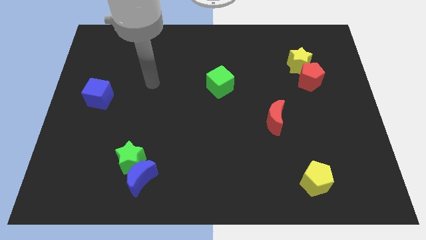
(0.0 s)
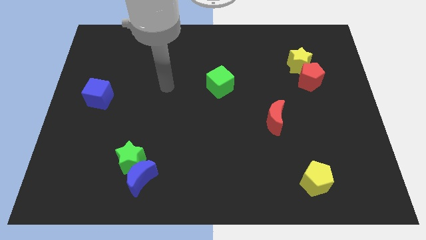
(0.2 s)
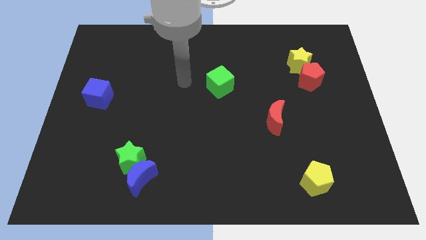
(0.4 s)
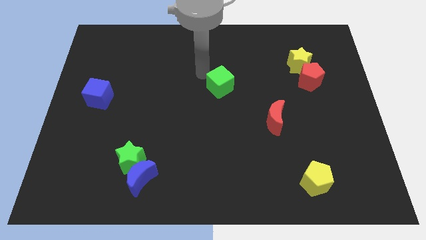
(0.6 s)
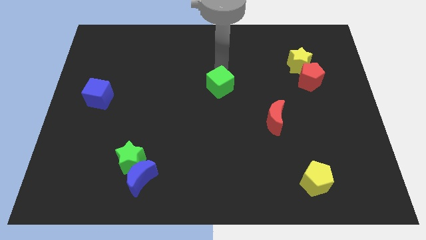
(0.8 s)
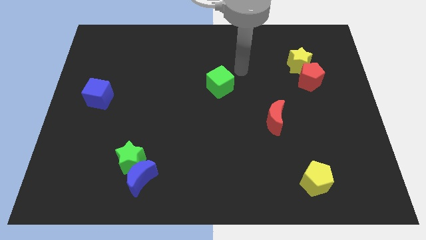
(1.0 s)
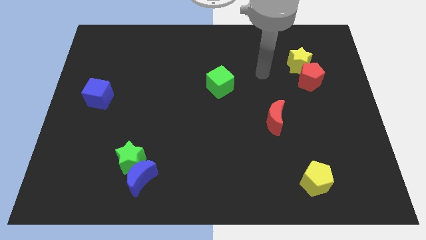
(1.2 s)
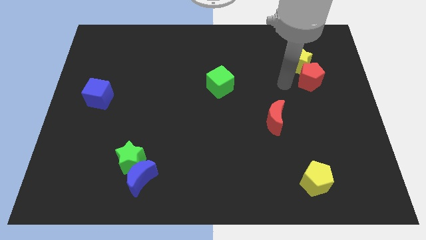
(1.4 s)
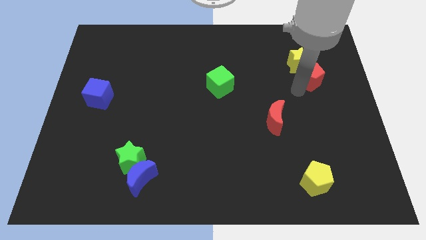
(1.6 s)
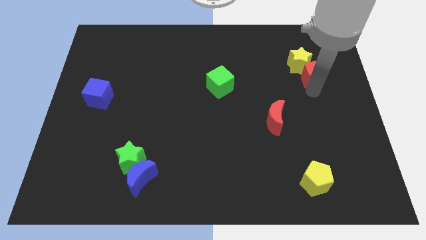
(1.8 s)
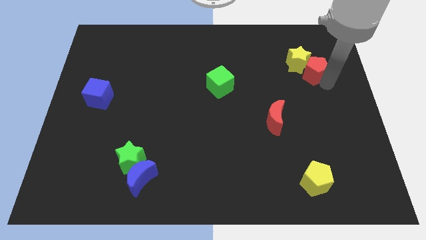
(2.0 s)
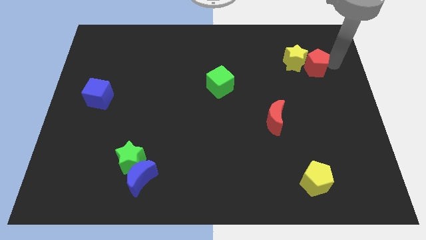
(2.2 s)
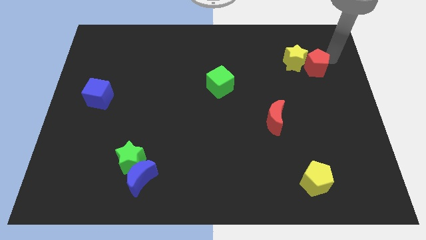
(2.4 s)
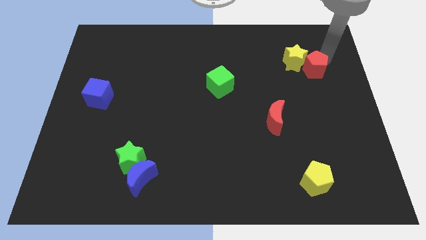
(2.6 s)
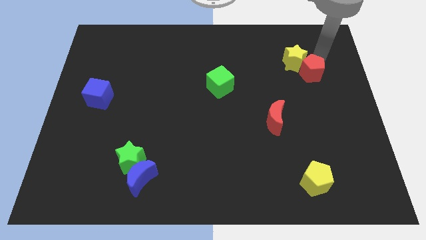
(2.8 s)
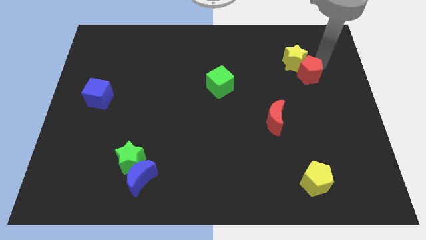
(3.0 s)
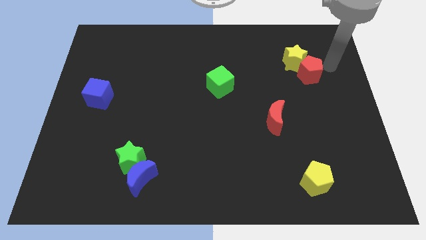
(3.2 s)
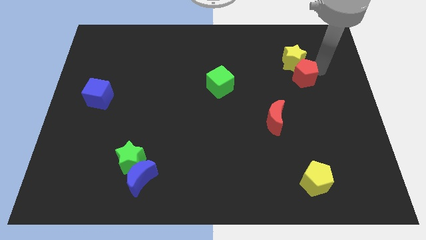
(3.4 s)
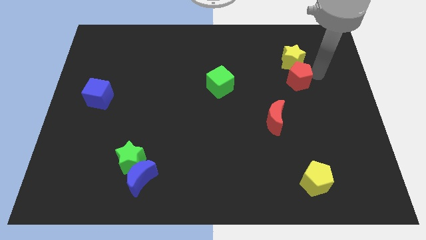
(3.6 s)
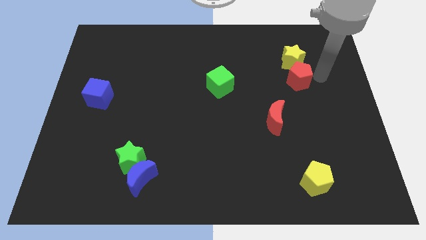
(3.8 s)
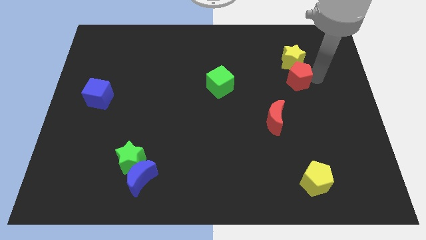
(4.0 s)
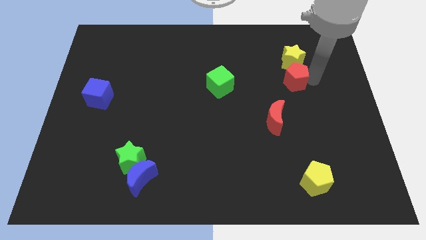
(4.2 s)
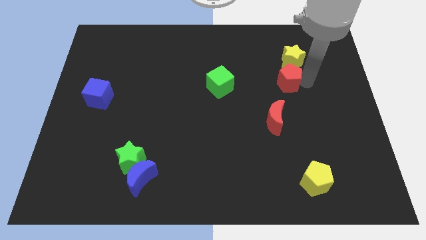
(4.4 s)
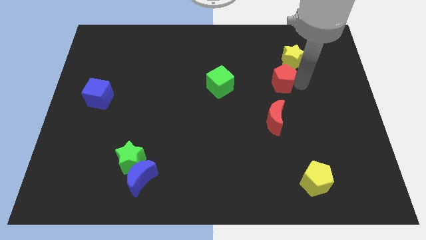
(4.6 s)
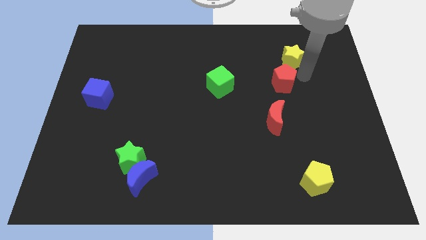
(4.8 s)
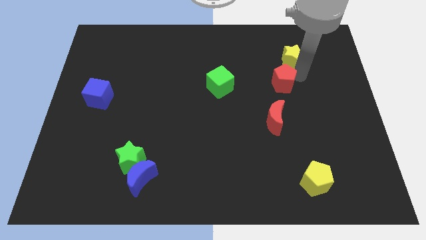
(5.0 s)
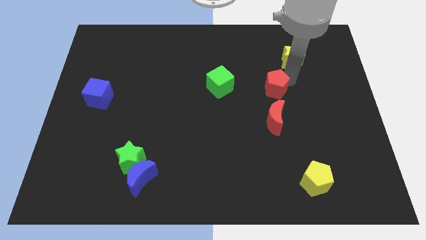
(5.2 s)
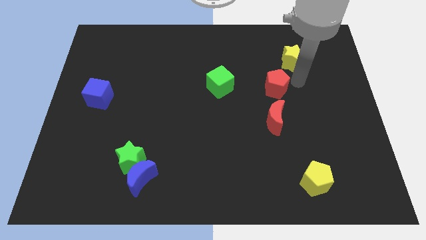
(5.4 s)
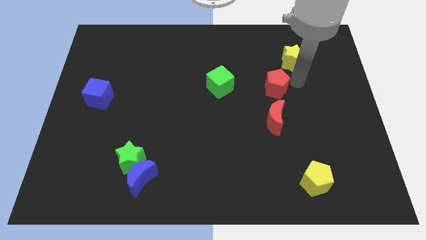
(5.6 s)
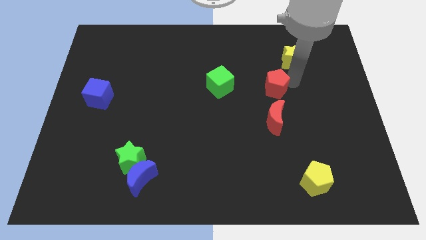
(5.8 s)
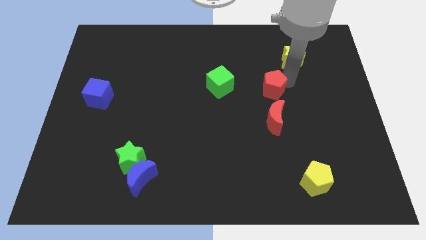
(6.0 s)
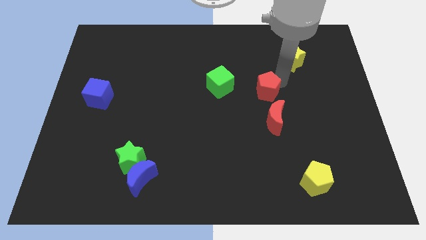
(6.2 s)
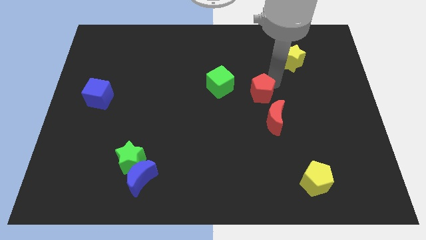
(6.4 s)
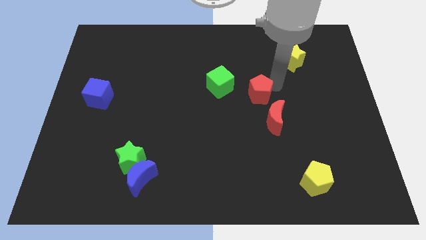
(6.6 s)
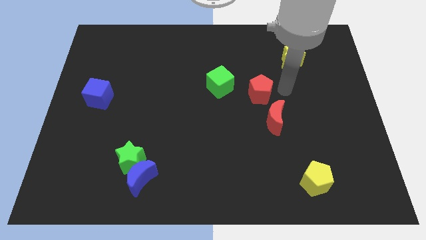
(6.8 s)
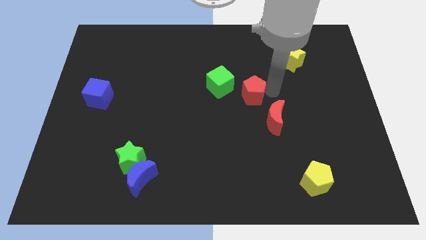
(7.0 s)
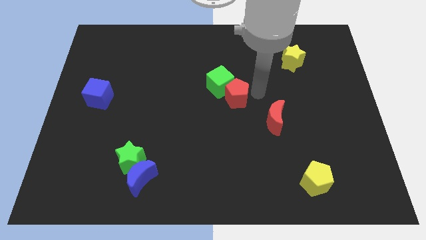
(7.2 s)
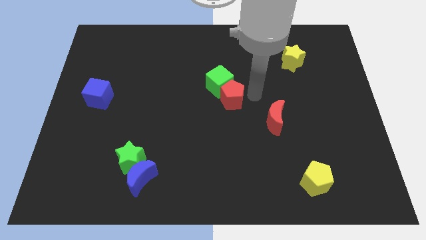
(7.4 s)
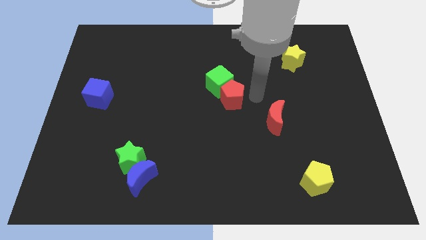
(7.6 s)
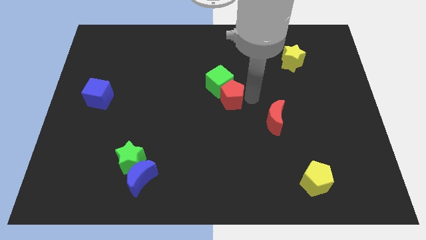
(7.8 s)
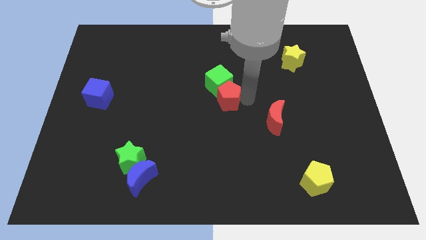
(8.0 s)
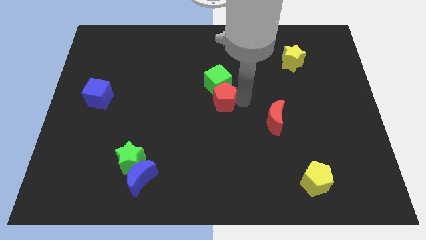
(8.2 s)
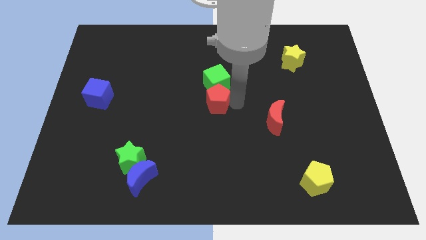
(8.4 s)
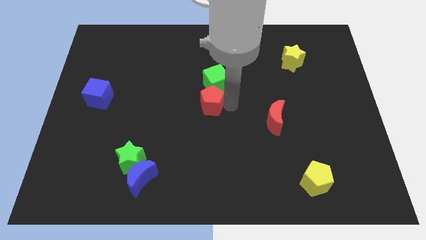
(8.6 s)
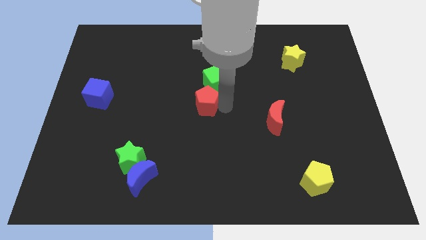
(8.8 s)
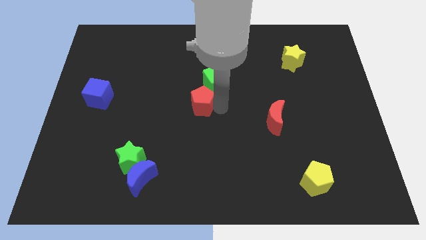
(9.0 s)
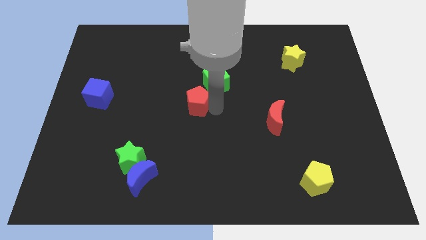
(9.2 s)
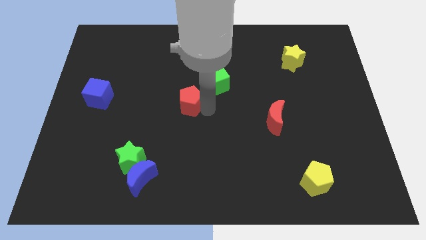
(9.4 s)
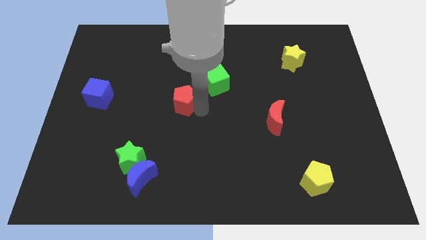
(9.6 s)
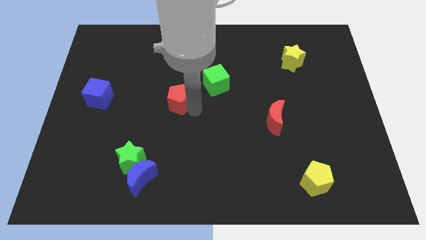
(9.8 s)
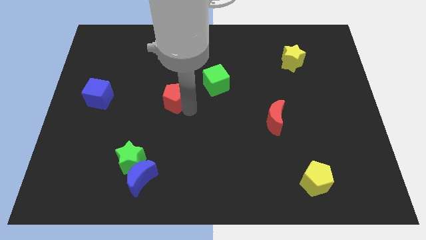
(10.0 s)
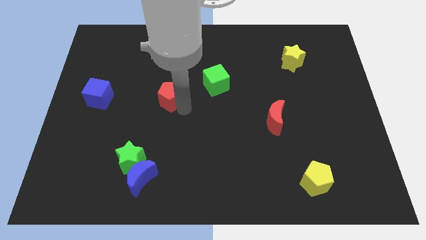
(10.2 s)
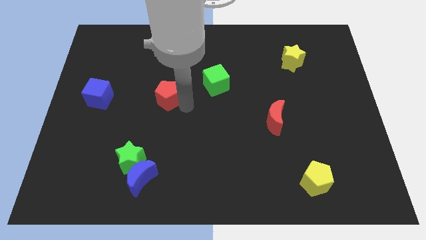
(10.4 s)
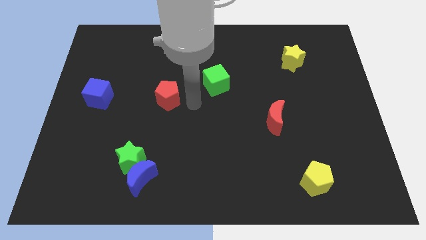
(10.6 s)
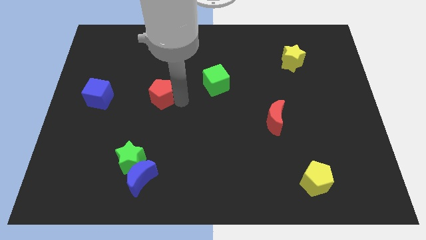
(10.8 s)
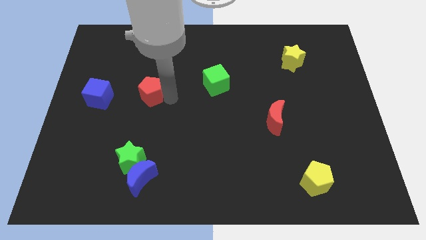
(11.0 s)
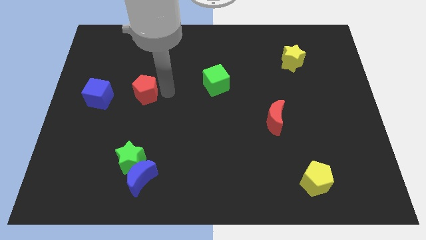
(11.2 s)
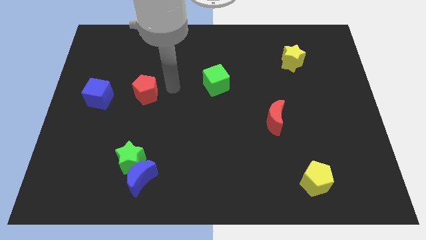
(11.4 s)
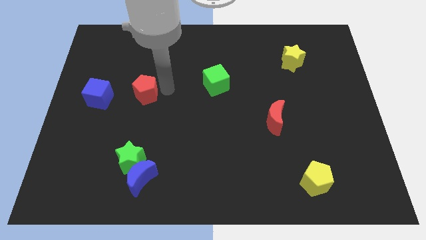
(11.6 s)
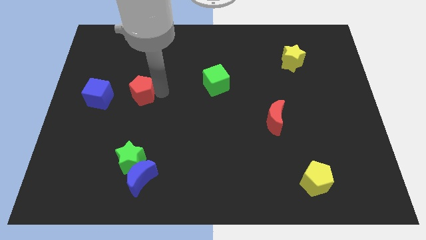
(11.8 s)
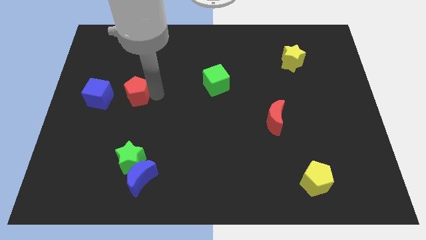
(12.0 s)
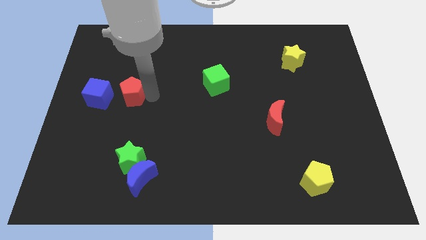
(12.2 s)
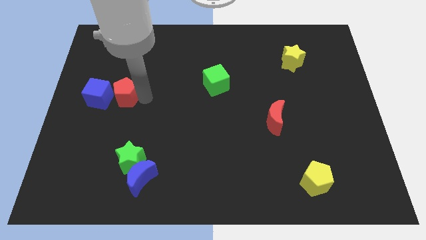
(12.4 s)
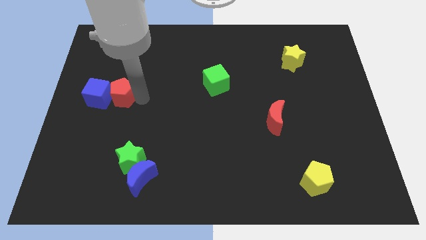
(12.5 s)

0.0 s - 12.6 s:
move the red pentagon close to the blue cube

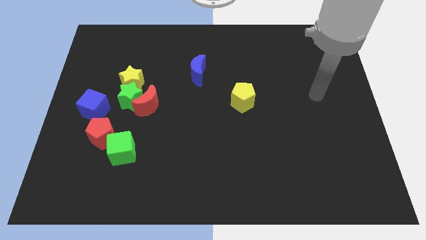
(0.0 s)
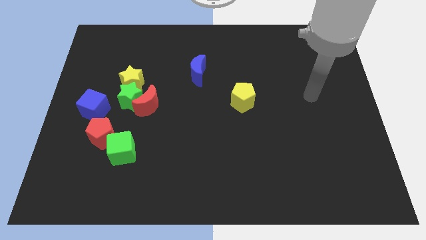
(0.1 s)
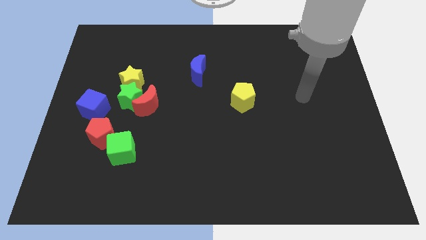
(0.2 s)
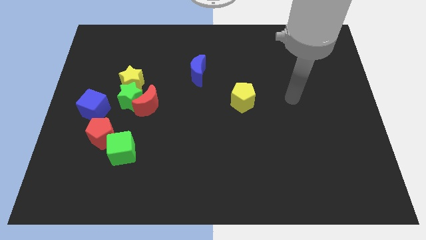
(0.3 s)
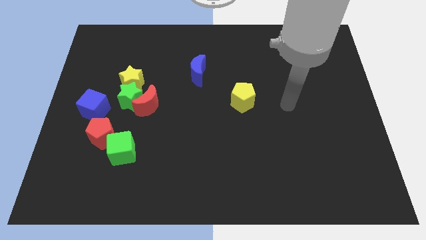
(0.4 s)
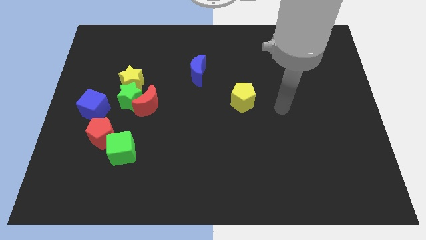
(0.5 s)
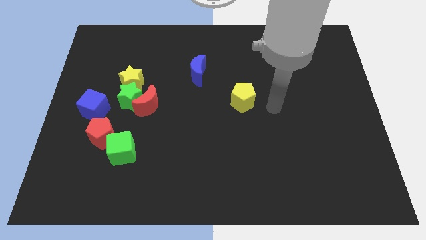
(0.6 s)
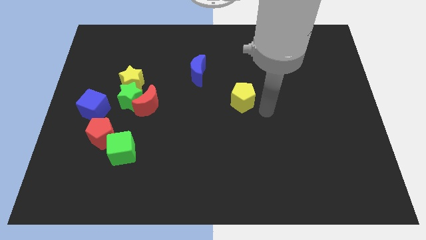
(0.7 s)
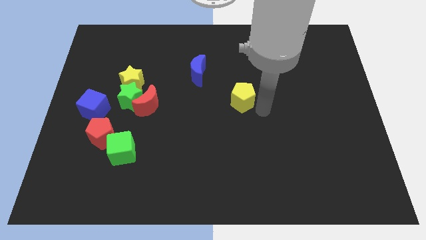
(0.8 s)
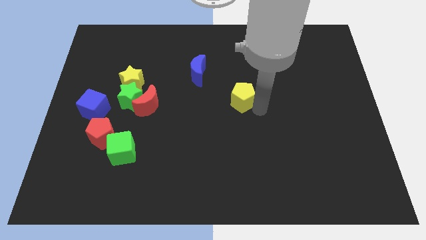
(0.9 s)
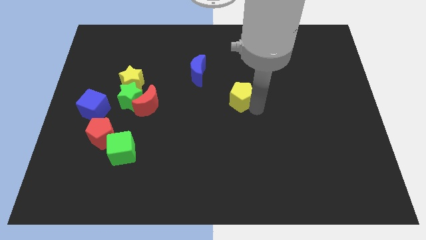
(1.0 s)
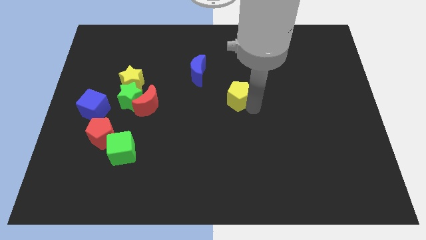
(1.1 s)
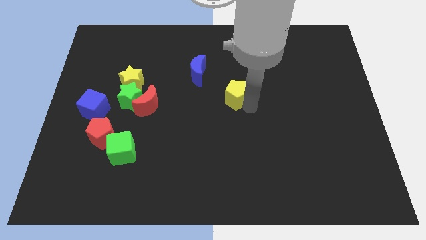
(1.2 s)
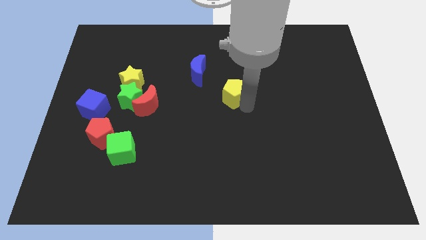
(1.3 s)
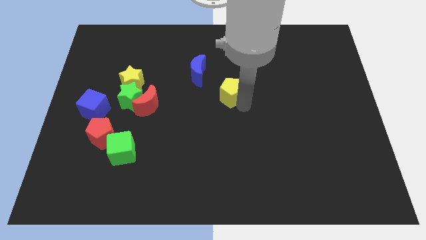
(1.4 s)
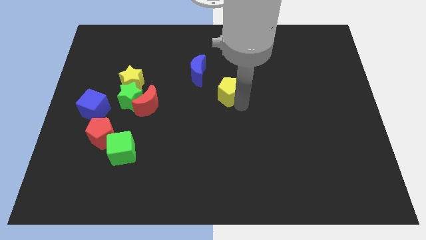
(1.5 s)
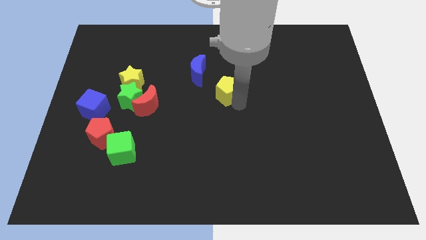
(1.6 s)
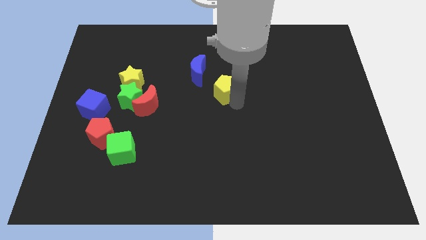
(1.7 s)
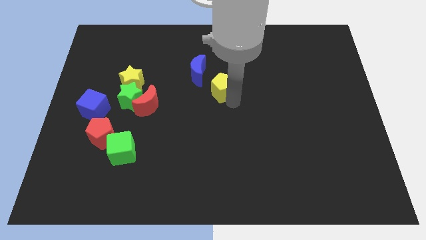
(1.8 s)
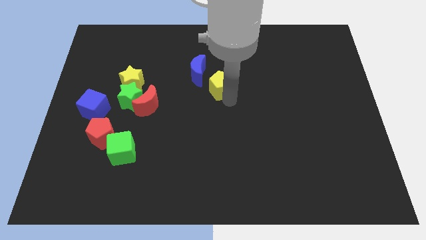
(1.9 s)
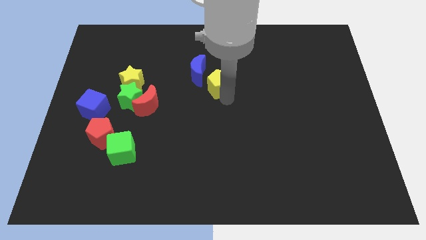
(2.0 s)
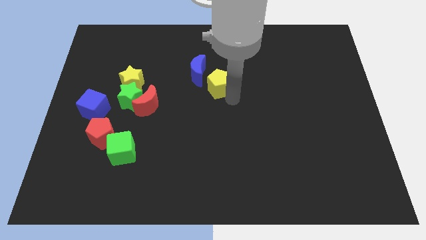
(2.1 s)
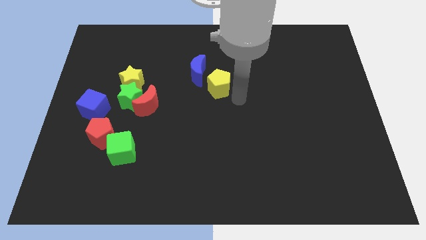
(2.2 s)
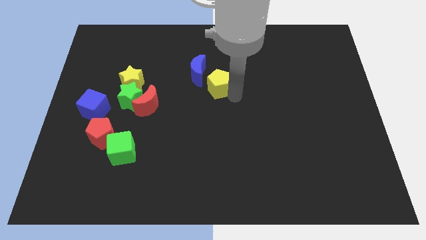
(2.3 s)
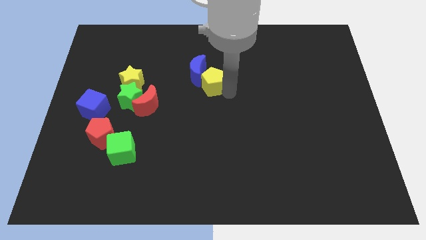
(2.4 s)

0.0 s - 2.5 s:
slide the yellow pentagon towards the blue moon
